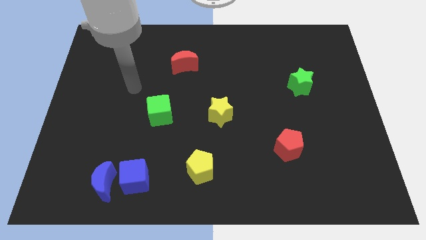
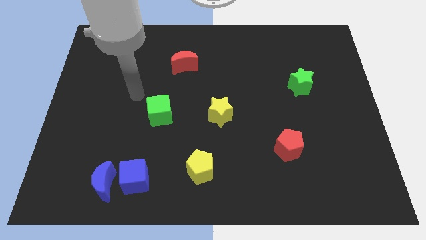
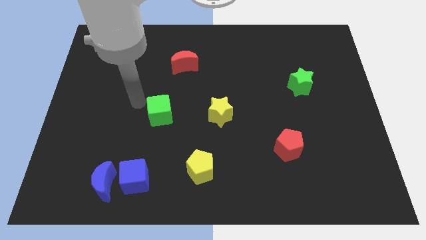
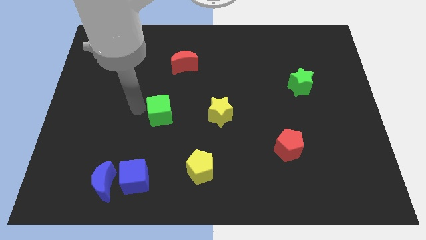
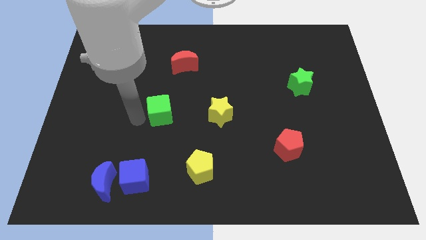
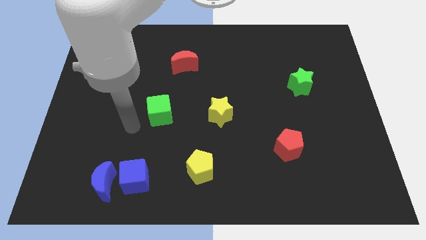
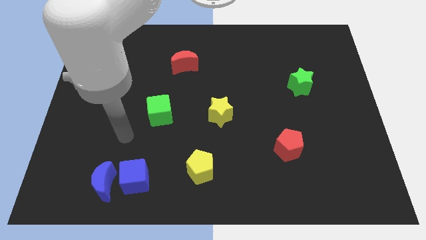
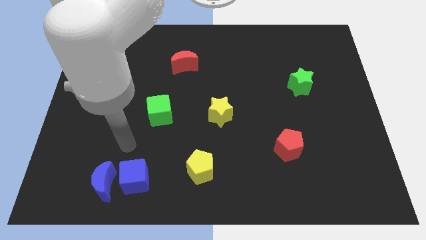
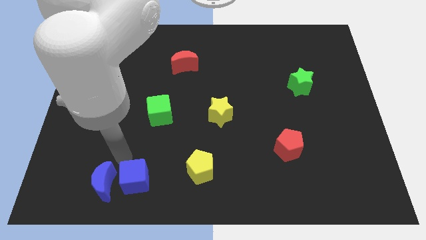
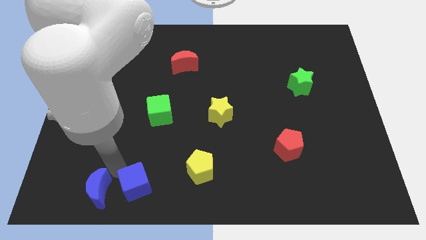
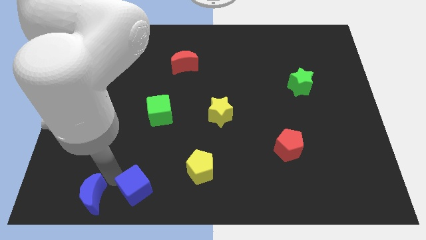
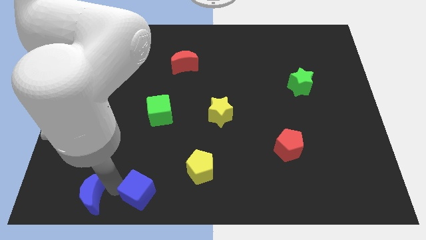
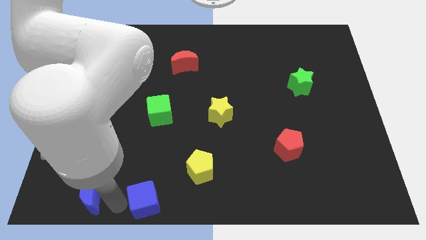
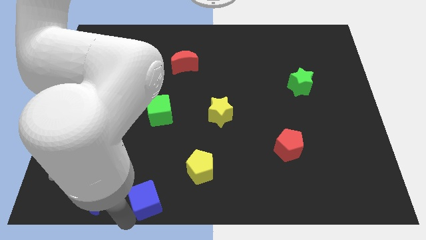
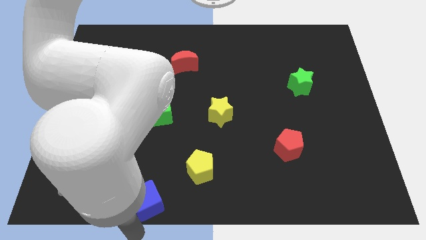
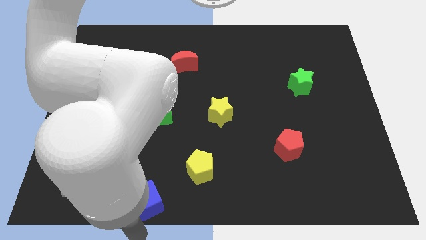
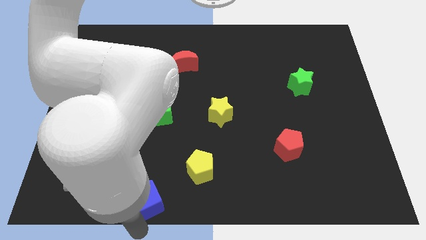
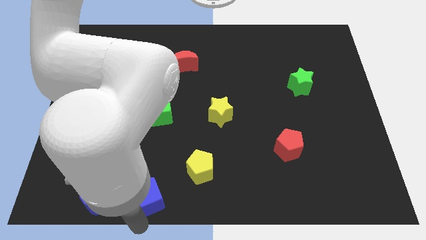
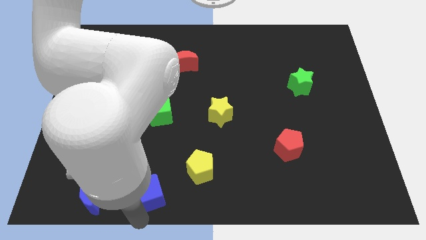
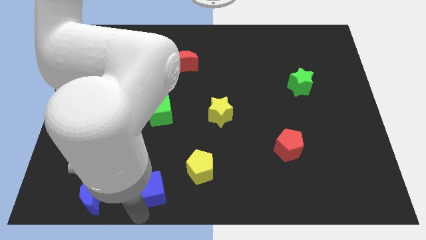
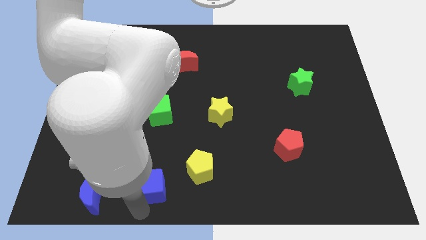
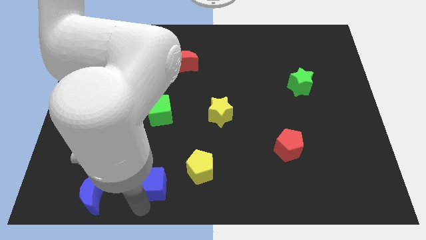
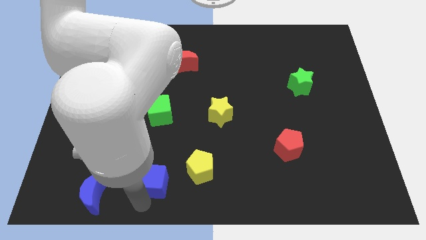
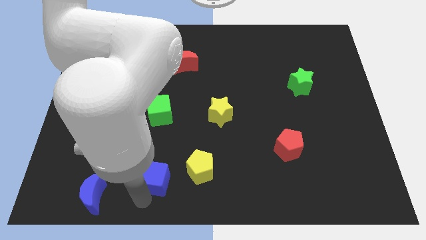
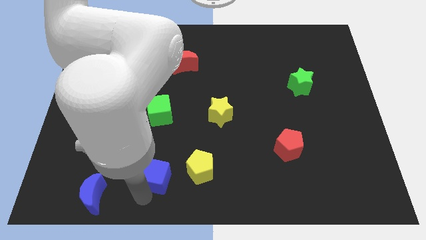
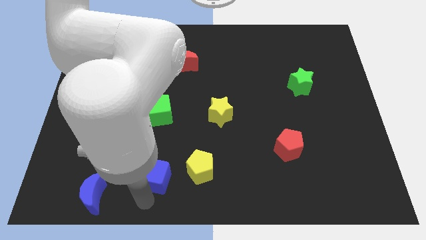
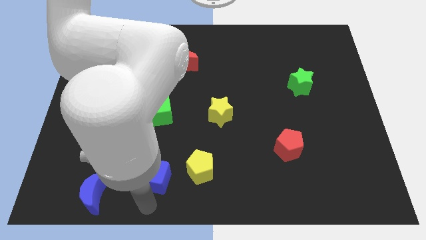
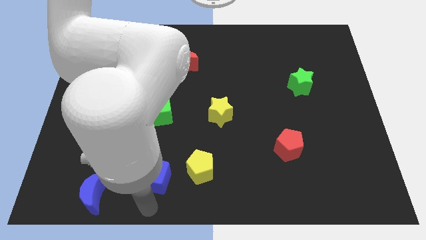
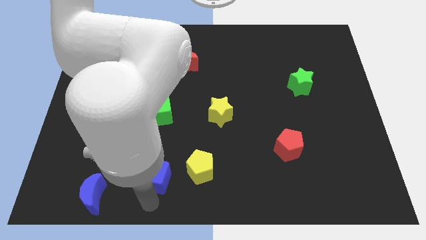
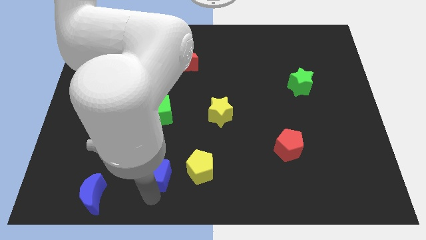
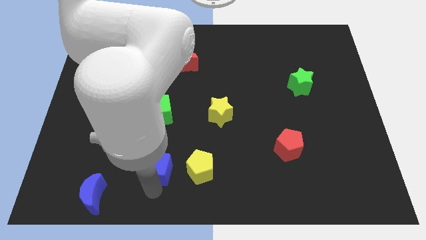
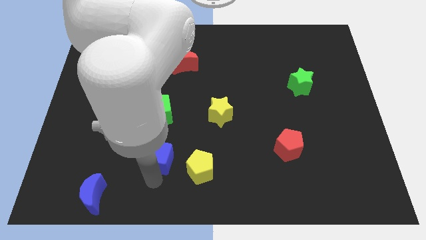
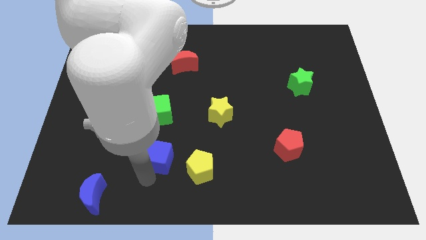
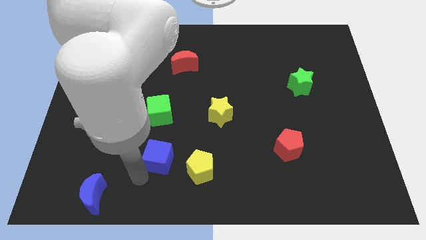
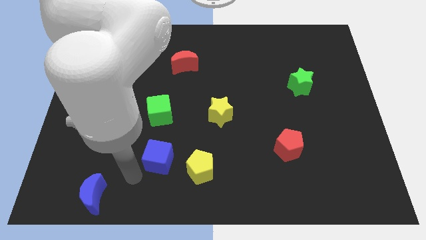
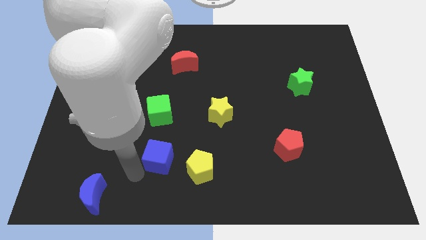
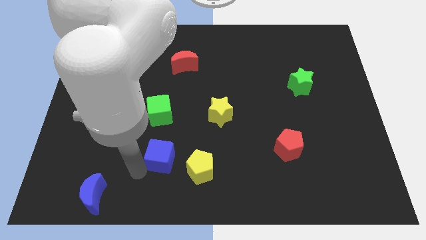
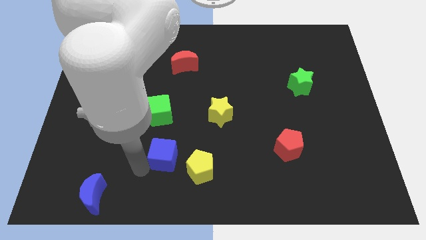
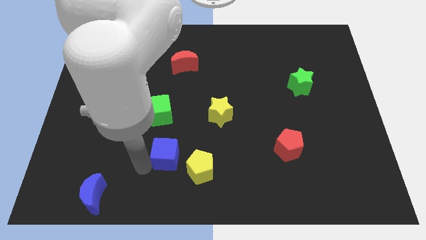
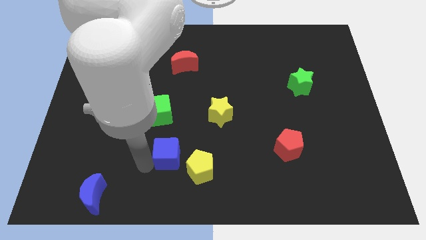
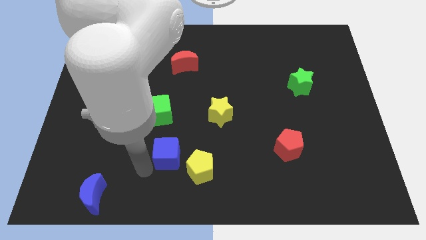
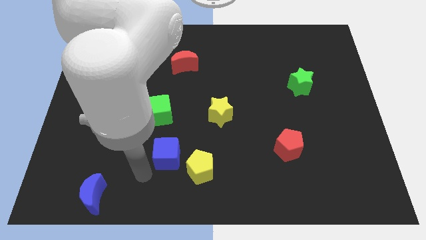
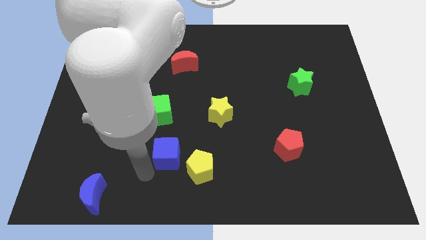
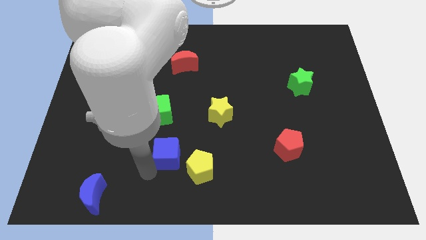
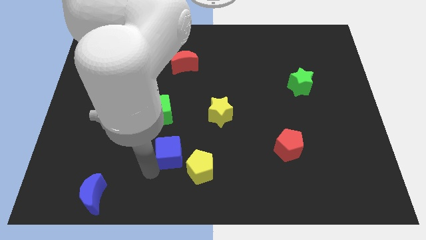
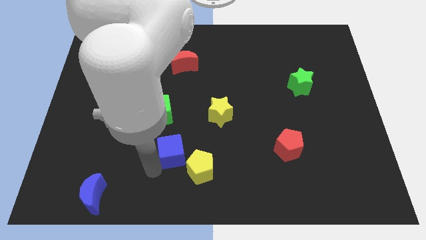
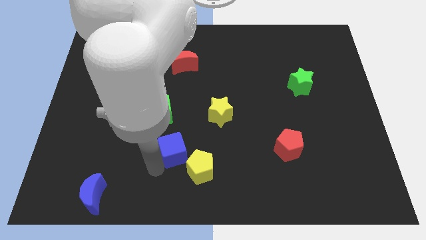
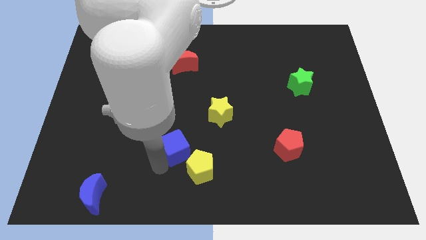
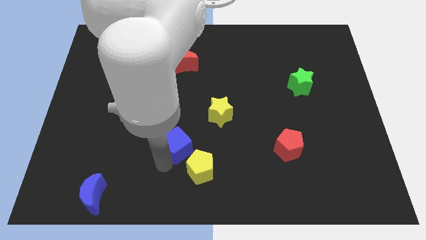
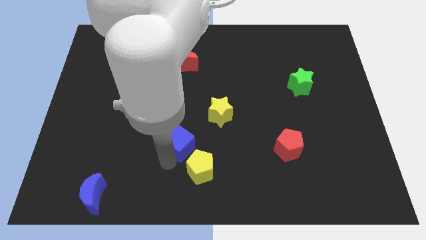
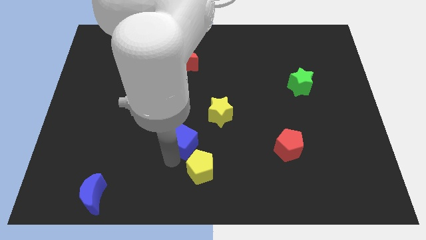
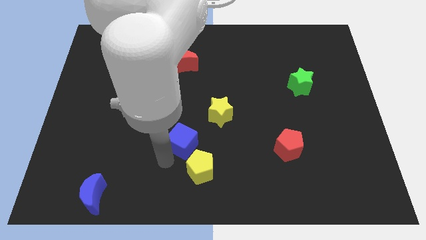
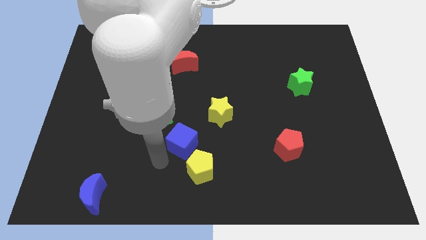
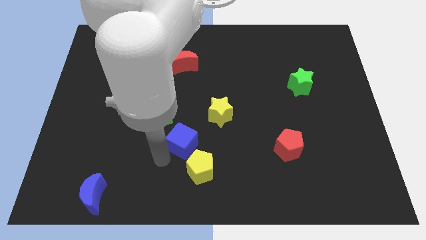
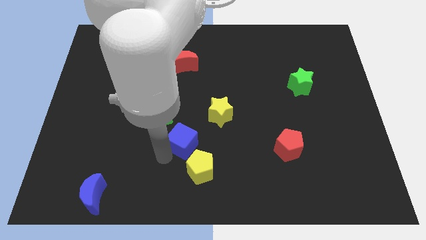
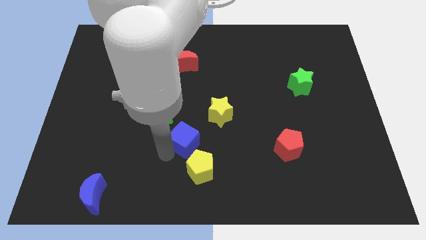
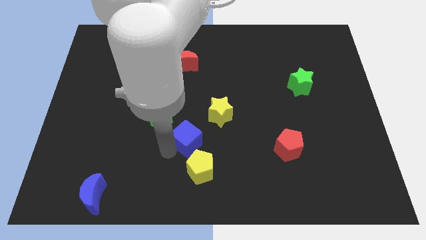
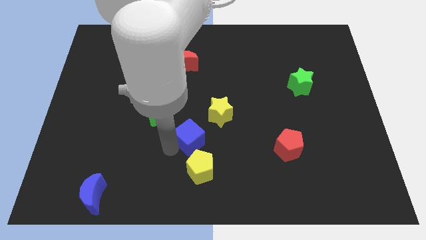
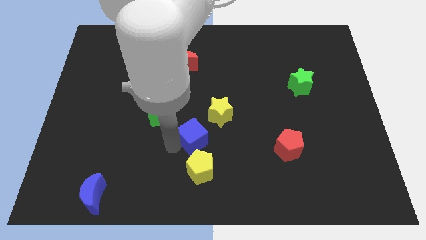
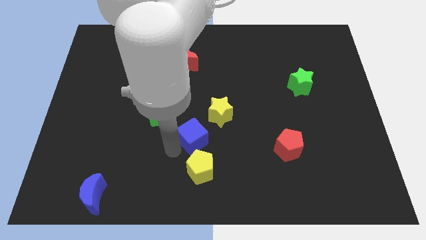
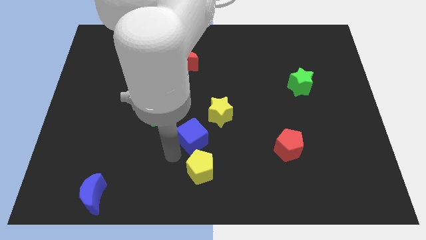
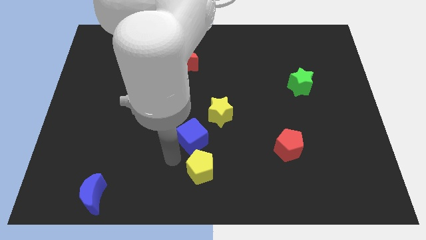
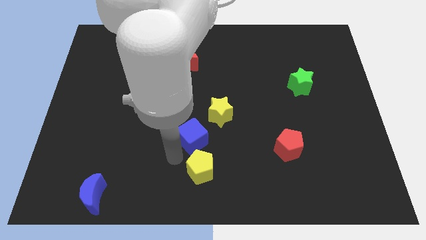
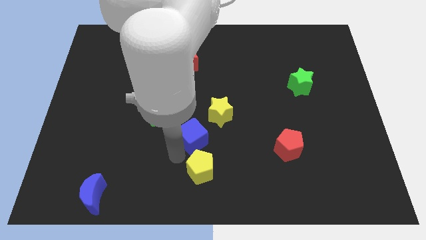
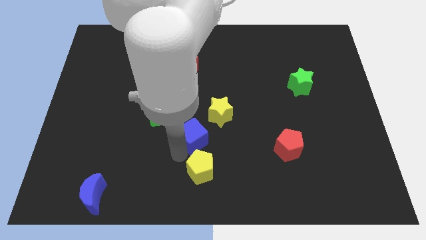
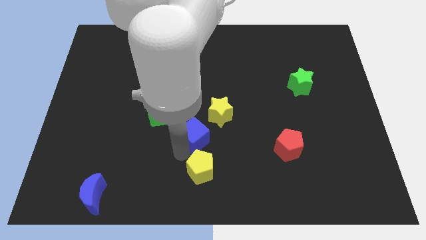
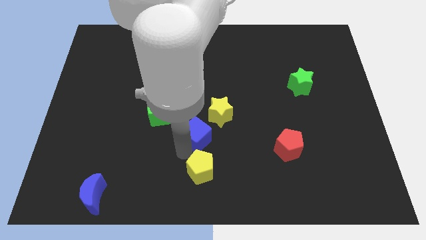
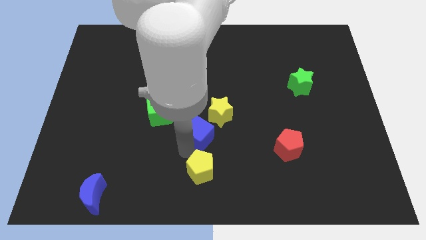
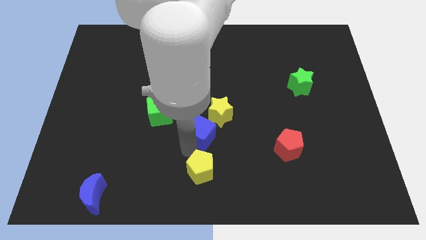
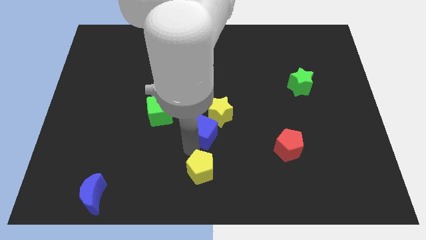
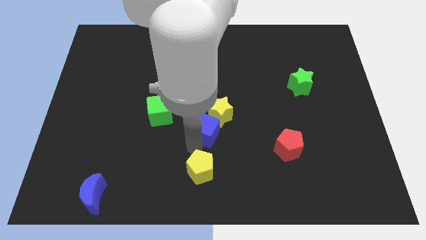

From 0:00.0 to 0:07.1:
move the blue cube next to the yellow star
